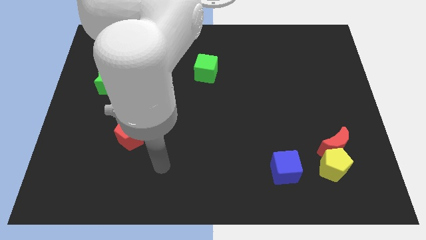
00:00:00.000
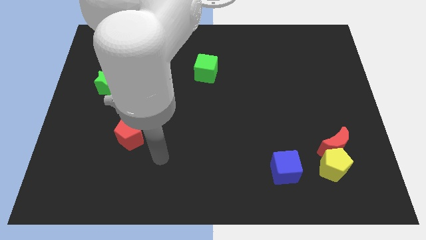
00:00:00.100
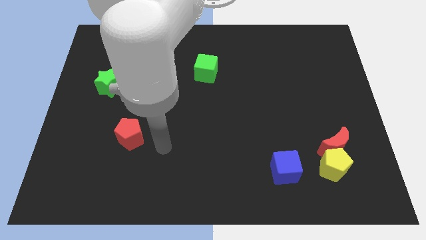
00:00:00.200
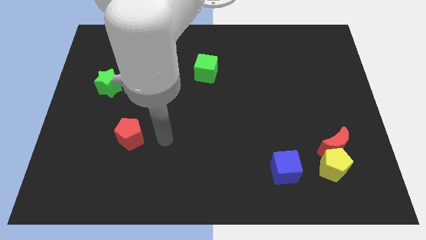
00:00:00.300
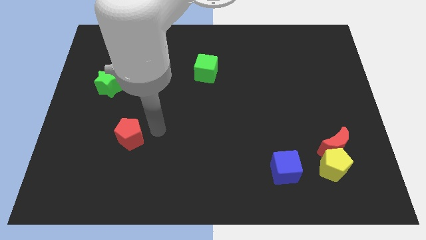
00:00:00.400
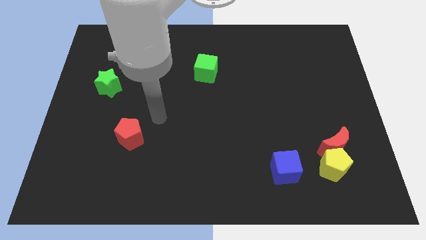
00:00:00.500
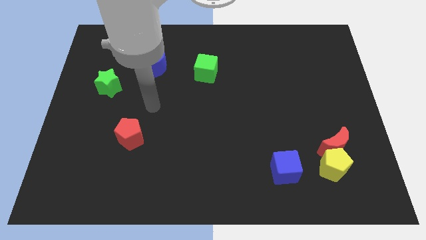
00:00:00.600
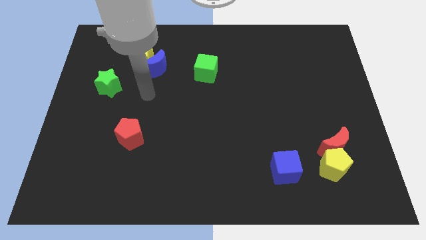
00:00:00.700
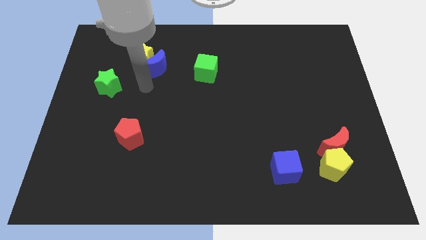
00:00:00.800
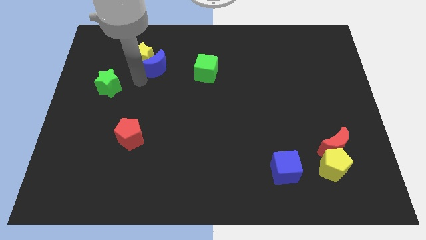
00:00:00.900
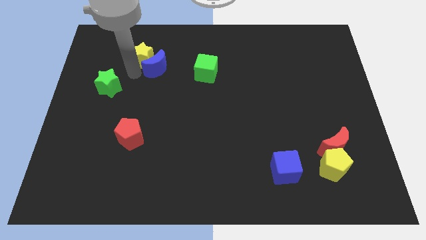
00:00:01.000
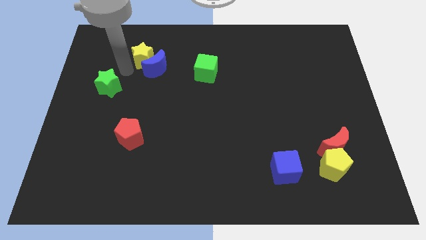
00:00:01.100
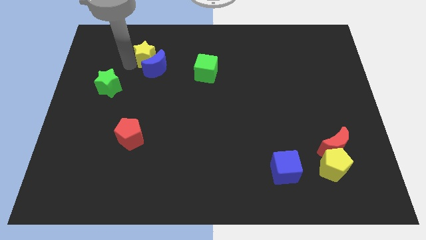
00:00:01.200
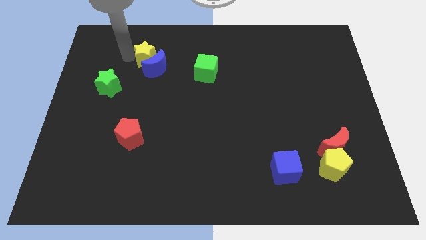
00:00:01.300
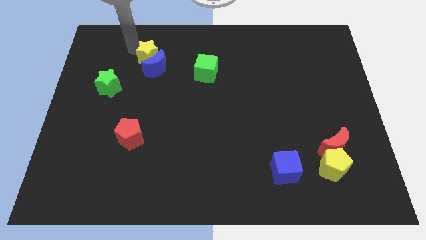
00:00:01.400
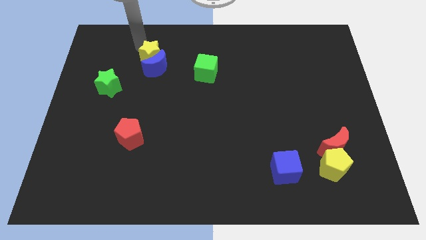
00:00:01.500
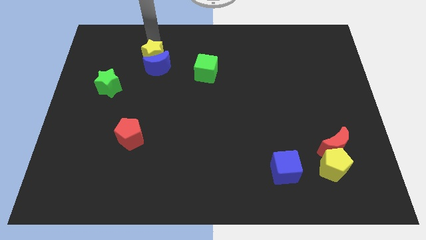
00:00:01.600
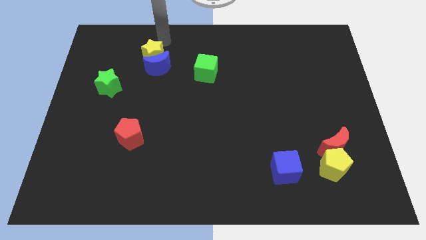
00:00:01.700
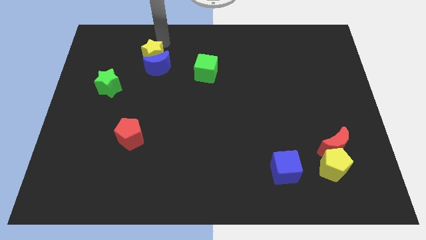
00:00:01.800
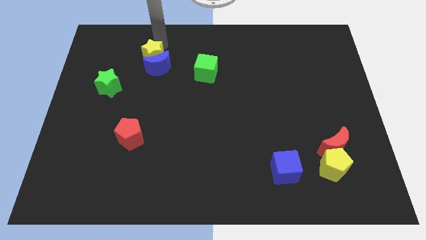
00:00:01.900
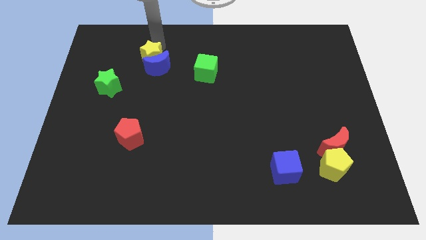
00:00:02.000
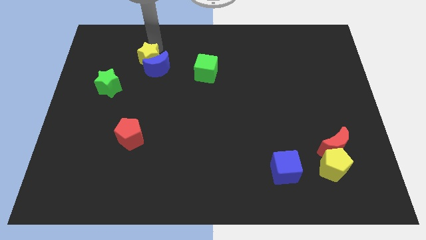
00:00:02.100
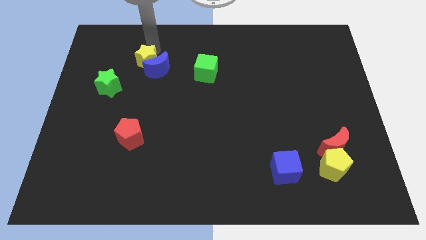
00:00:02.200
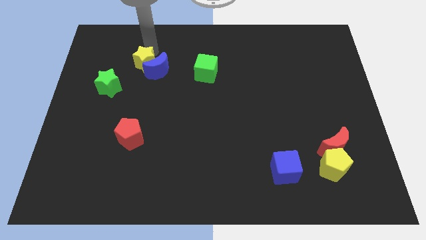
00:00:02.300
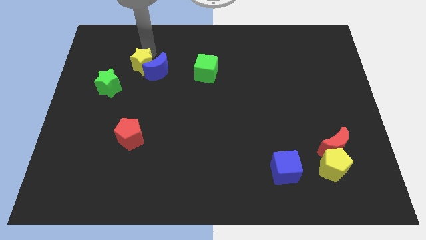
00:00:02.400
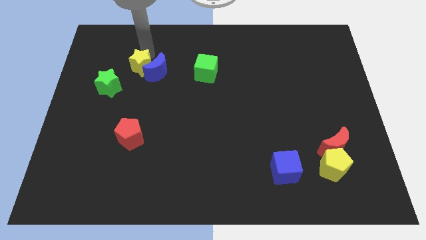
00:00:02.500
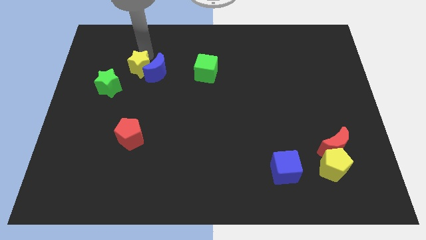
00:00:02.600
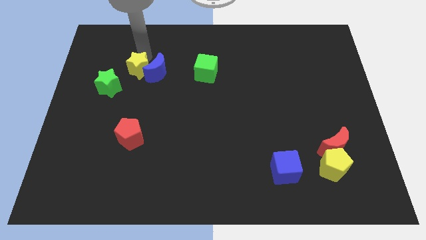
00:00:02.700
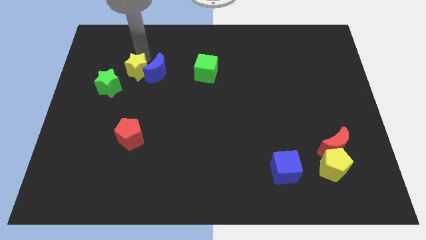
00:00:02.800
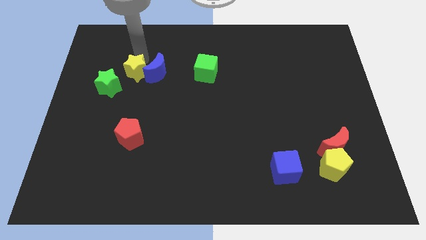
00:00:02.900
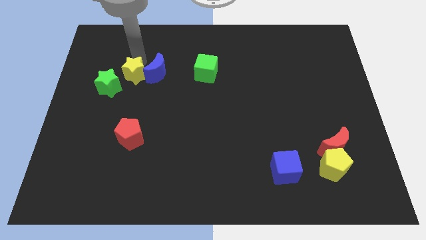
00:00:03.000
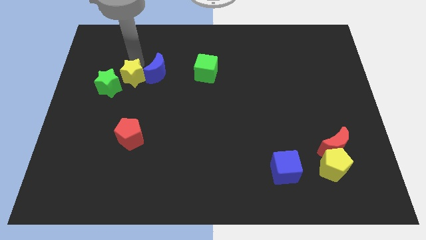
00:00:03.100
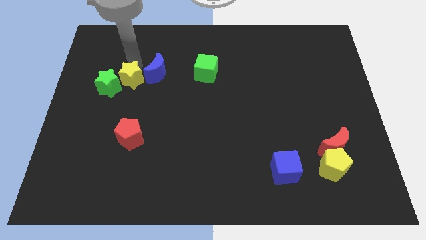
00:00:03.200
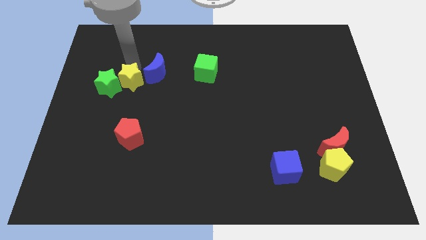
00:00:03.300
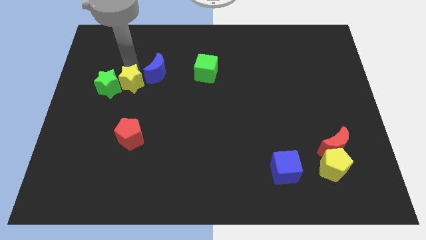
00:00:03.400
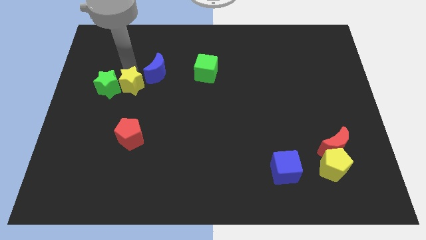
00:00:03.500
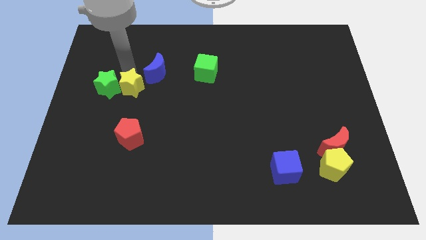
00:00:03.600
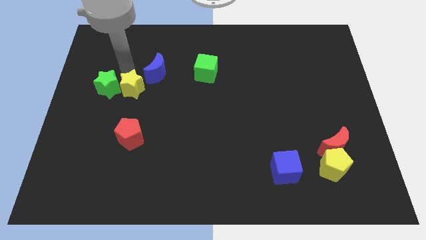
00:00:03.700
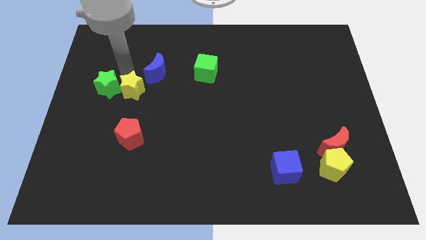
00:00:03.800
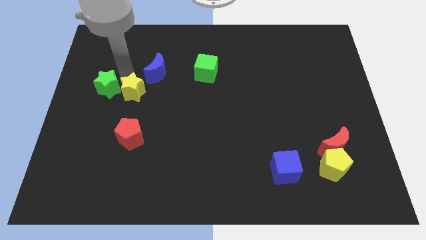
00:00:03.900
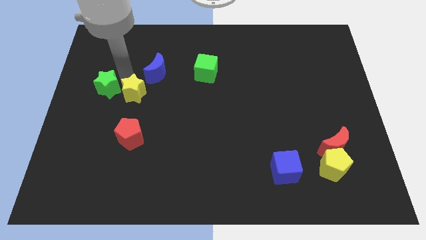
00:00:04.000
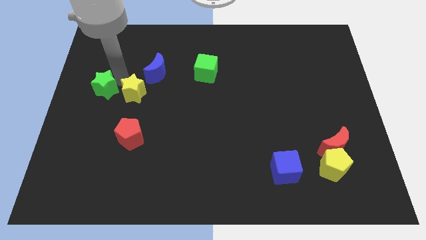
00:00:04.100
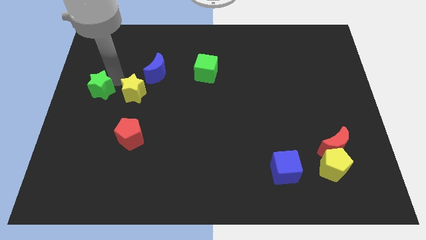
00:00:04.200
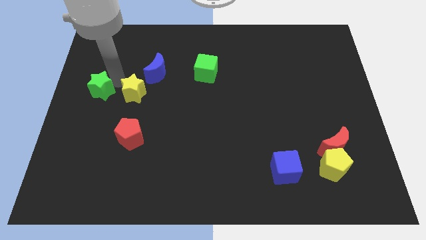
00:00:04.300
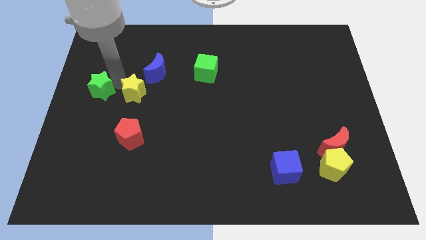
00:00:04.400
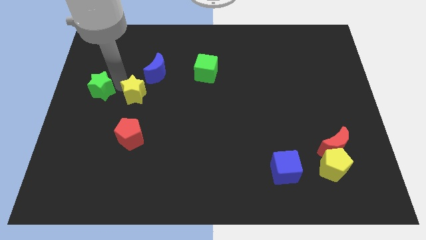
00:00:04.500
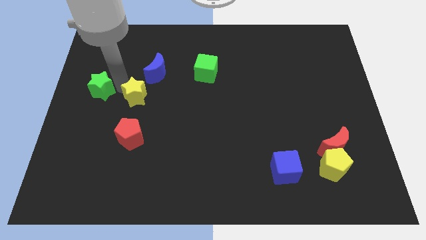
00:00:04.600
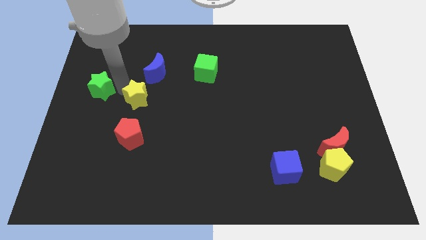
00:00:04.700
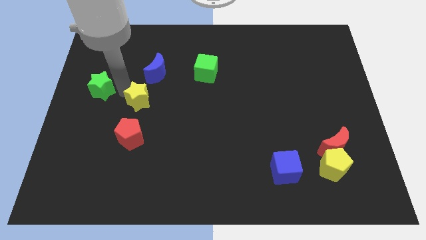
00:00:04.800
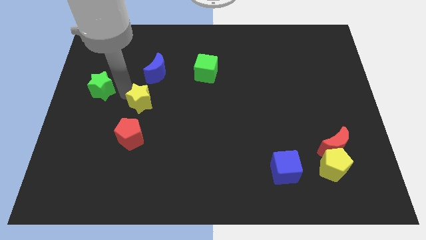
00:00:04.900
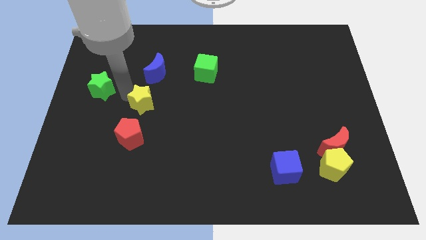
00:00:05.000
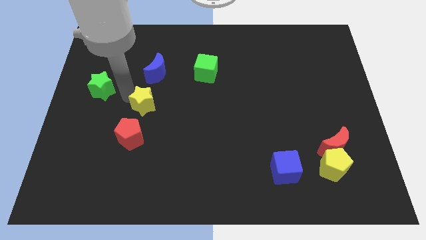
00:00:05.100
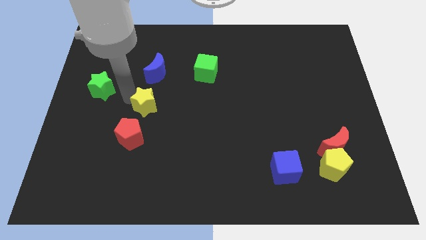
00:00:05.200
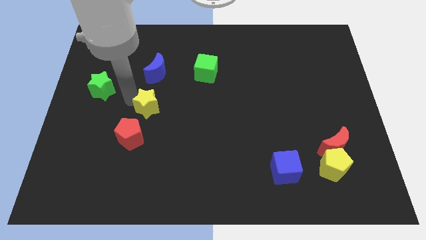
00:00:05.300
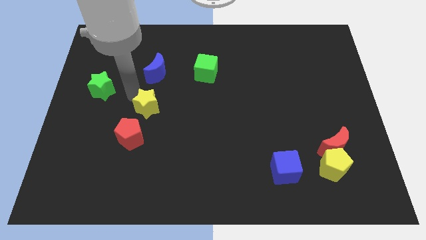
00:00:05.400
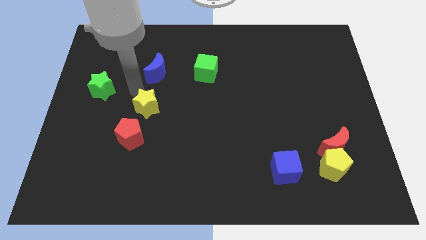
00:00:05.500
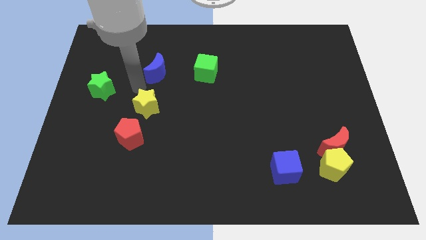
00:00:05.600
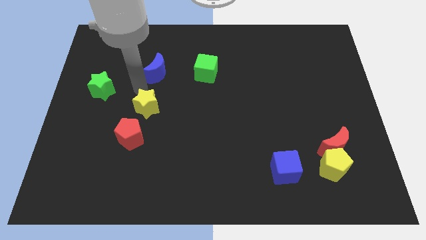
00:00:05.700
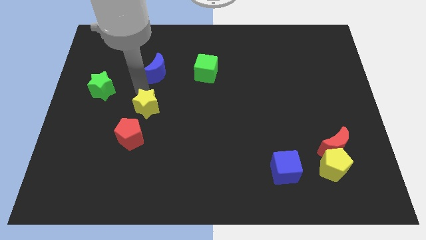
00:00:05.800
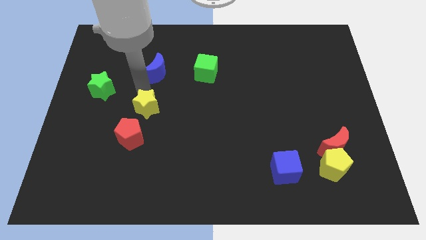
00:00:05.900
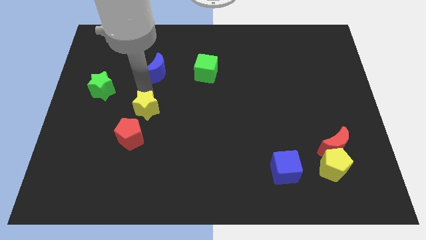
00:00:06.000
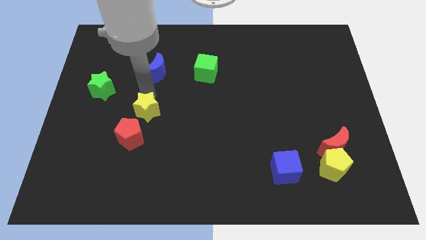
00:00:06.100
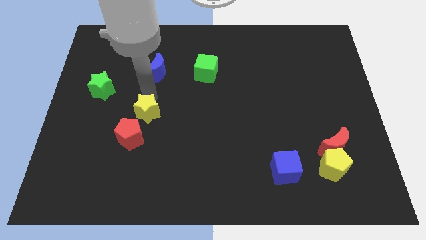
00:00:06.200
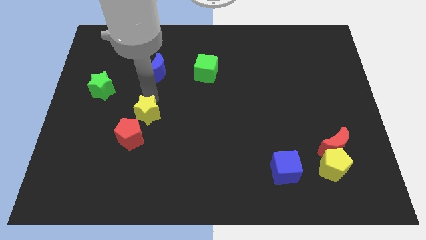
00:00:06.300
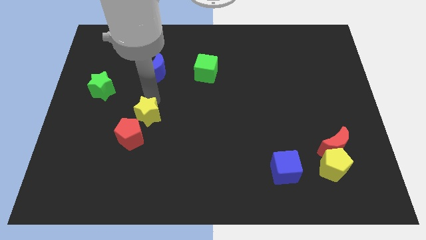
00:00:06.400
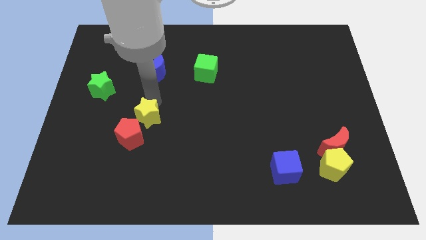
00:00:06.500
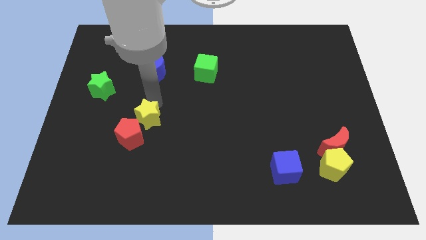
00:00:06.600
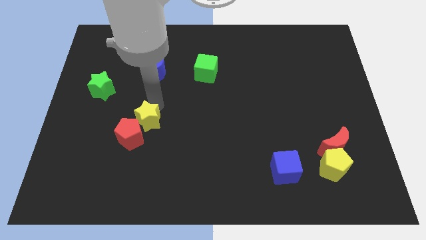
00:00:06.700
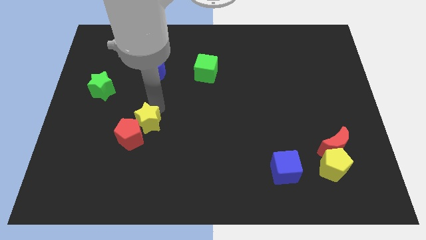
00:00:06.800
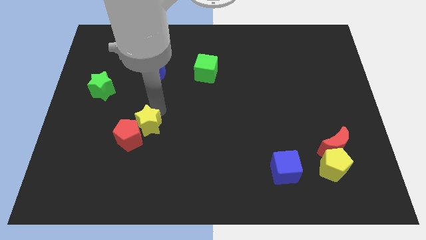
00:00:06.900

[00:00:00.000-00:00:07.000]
push the yellow star down

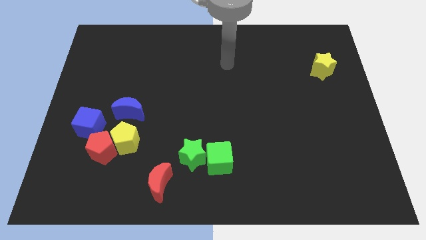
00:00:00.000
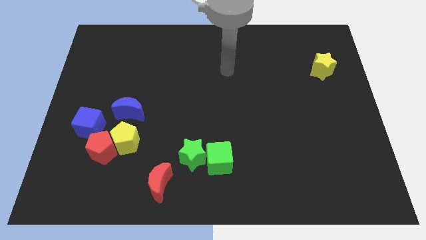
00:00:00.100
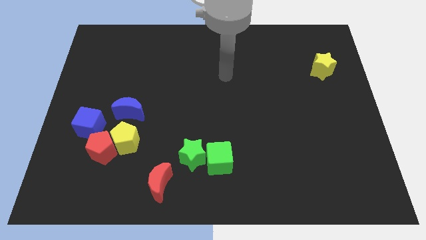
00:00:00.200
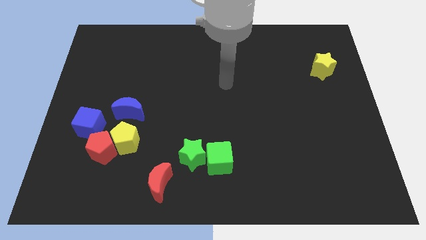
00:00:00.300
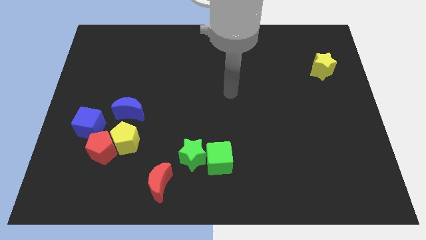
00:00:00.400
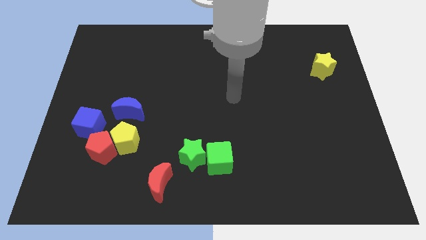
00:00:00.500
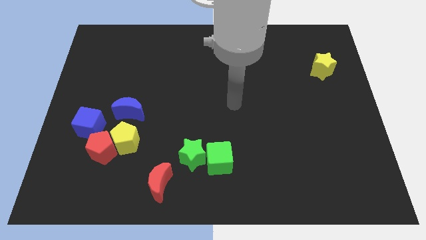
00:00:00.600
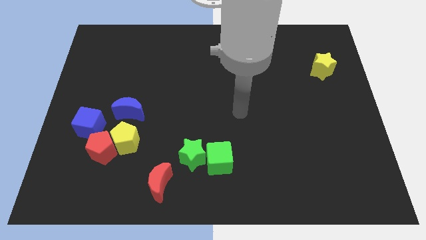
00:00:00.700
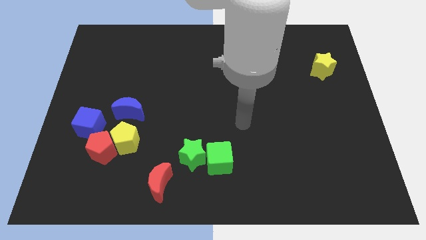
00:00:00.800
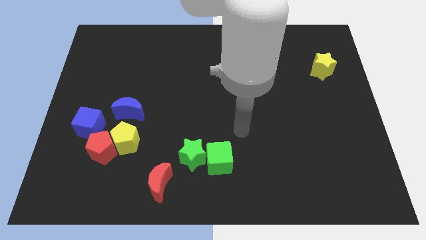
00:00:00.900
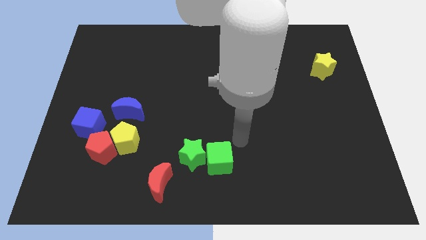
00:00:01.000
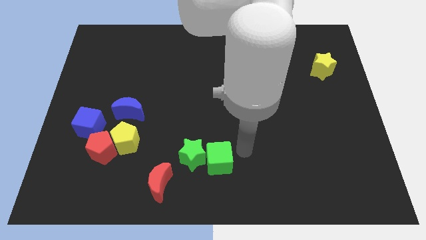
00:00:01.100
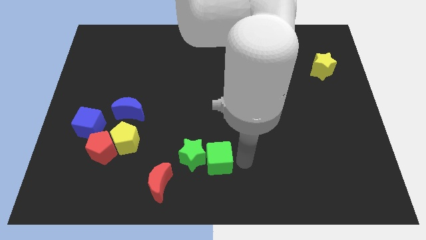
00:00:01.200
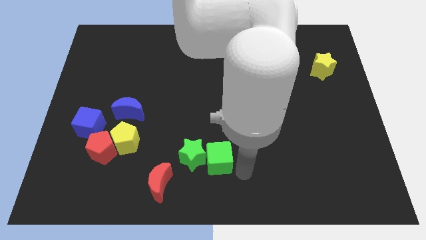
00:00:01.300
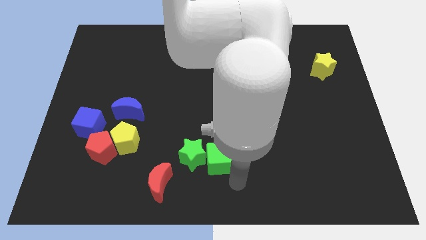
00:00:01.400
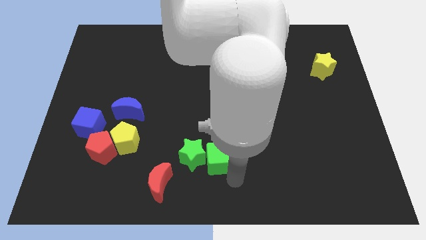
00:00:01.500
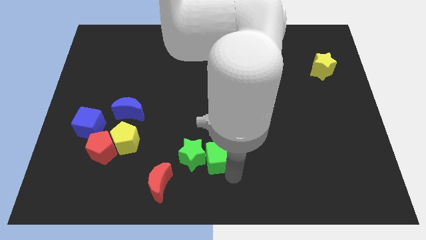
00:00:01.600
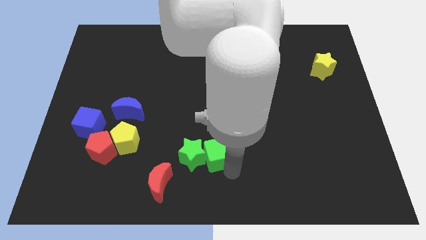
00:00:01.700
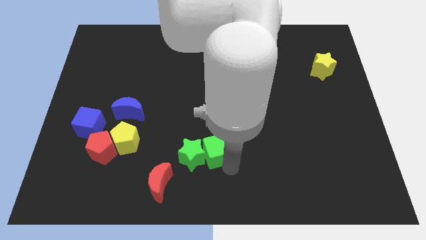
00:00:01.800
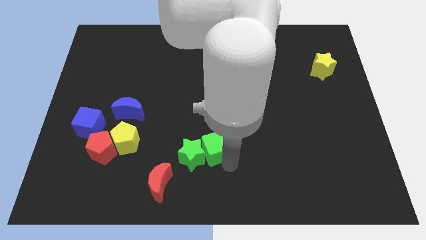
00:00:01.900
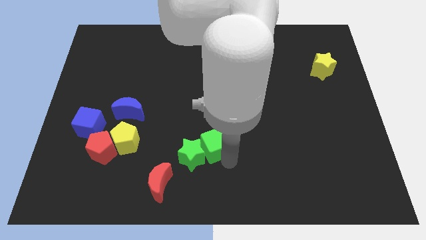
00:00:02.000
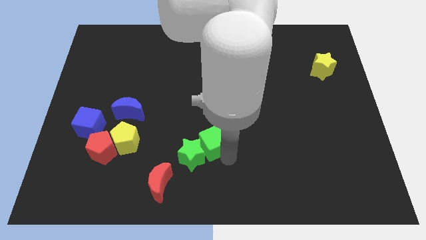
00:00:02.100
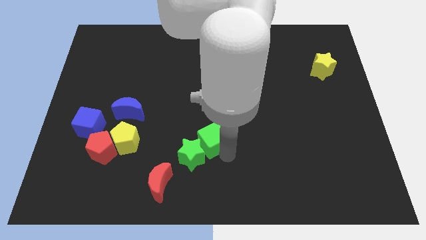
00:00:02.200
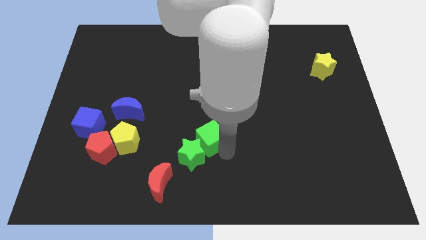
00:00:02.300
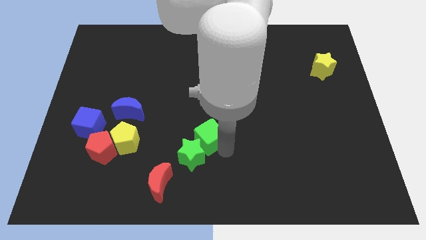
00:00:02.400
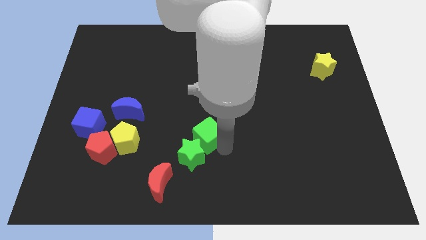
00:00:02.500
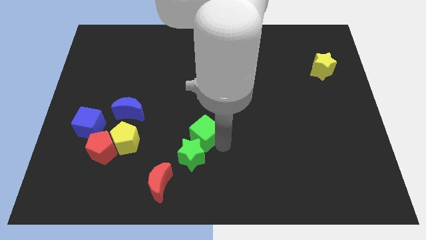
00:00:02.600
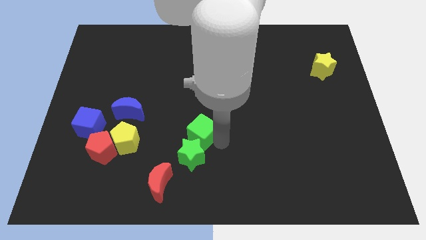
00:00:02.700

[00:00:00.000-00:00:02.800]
slightly move the green cube up and to the left
